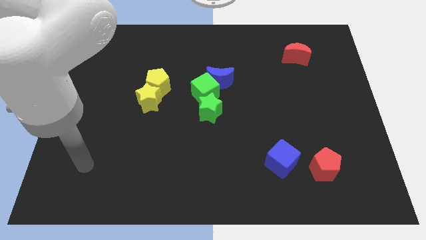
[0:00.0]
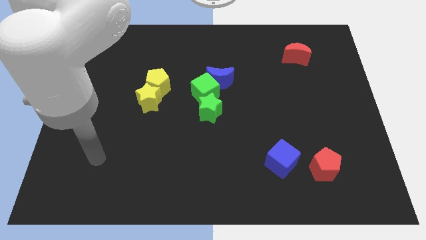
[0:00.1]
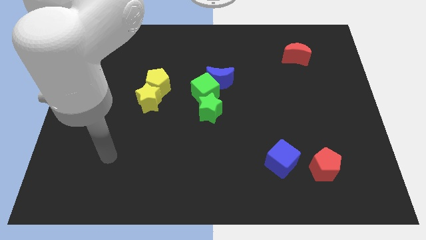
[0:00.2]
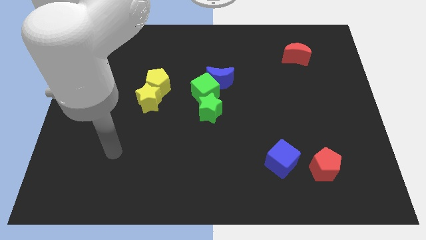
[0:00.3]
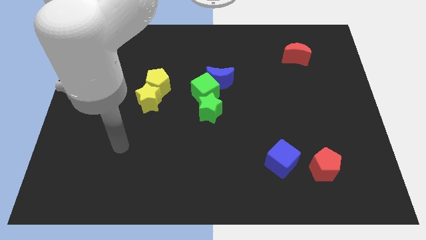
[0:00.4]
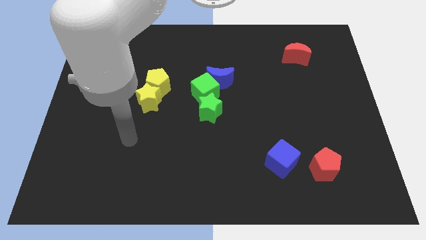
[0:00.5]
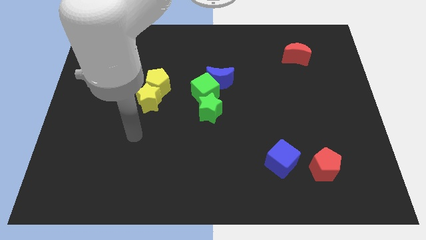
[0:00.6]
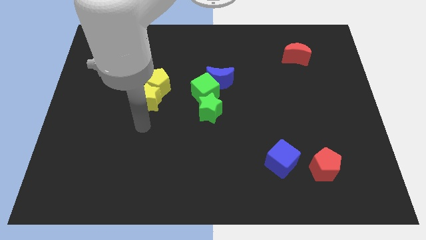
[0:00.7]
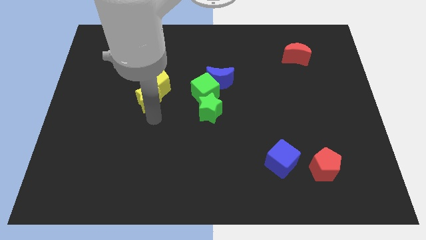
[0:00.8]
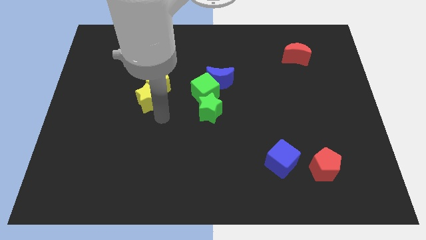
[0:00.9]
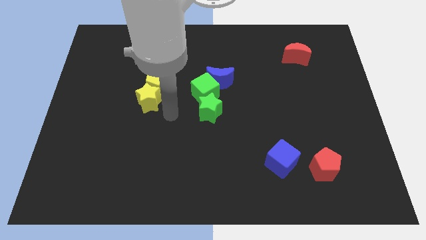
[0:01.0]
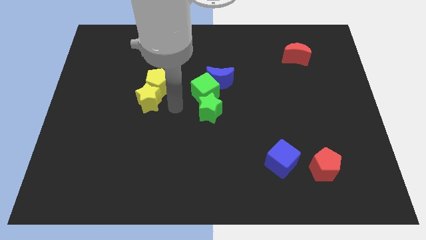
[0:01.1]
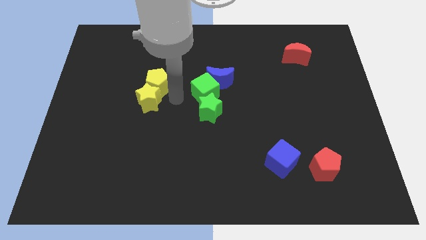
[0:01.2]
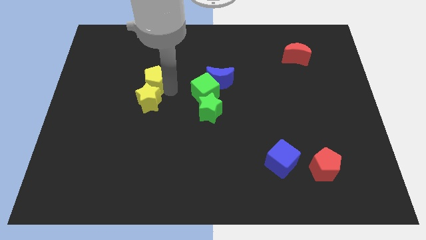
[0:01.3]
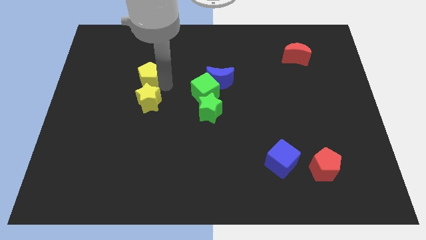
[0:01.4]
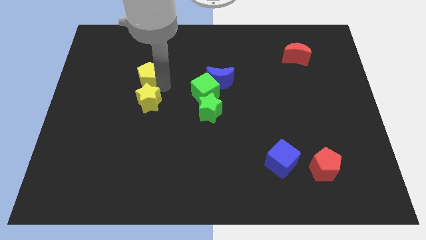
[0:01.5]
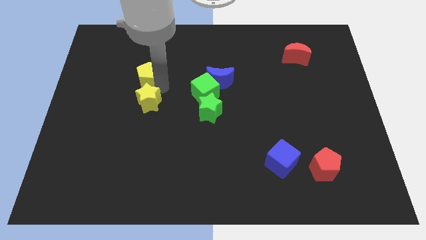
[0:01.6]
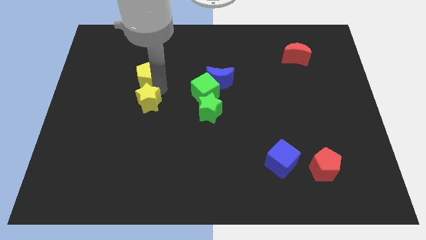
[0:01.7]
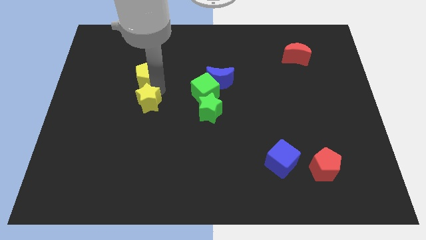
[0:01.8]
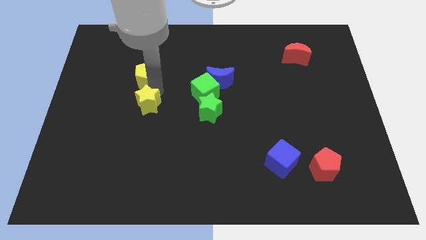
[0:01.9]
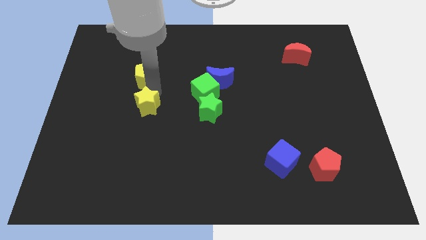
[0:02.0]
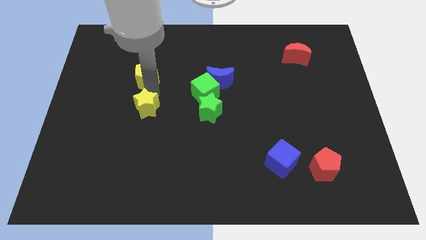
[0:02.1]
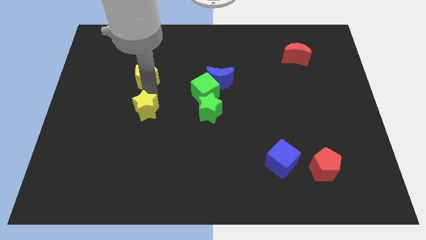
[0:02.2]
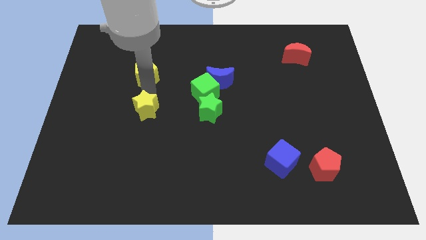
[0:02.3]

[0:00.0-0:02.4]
move the yellow star away from the yellow pentagon

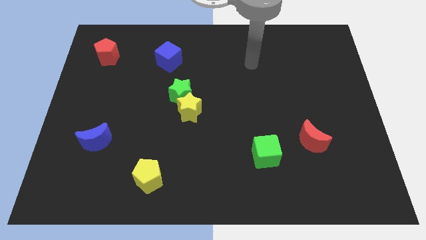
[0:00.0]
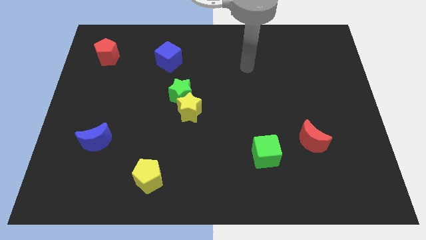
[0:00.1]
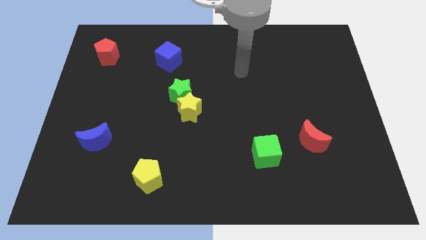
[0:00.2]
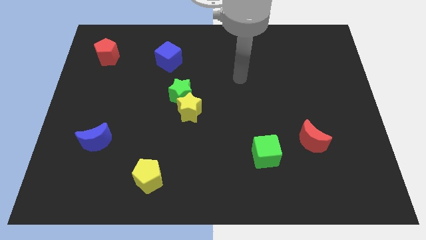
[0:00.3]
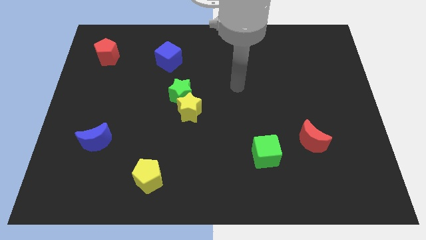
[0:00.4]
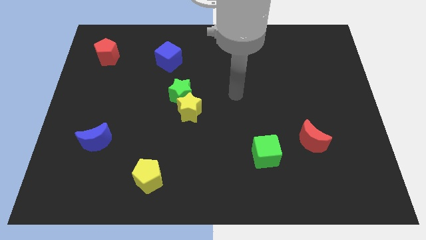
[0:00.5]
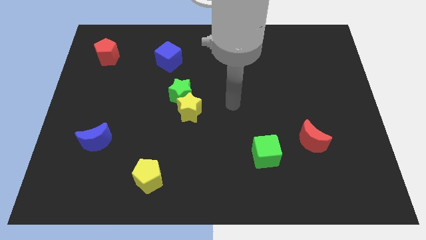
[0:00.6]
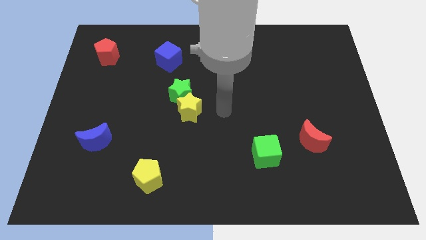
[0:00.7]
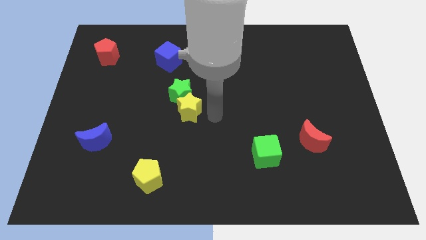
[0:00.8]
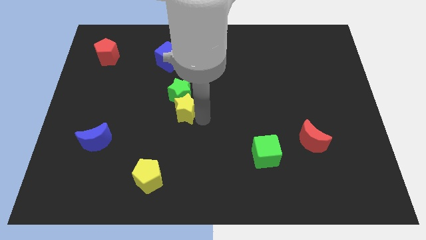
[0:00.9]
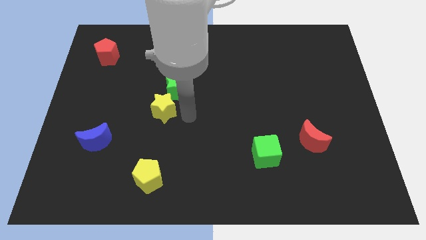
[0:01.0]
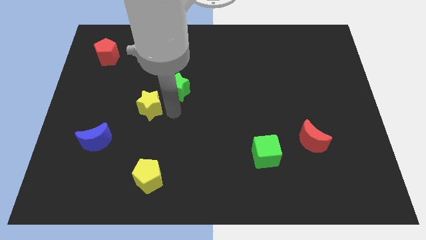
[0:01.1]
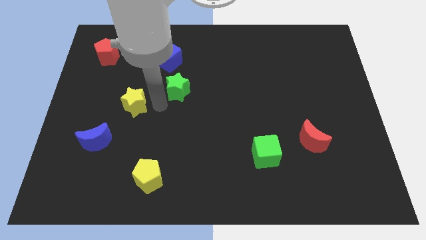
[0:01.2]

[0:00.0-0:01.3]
pull the green star apart from the yellow star

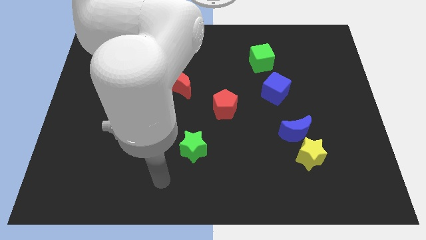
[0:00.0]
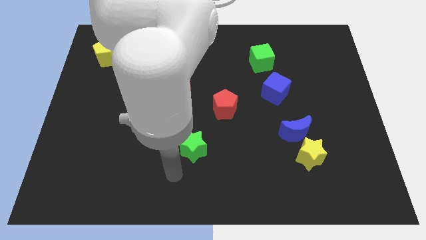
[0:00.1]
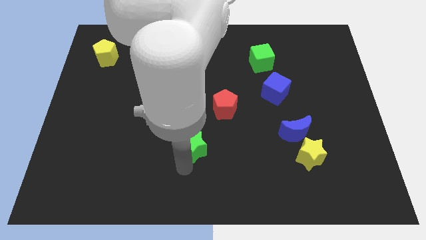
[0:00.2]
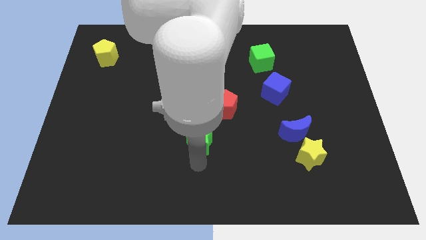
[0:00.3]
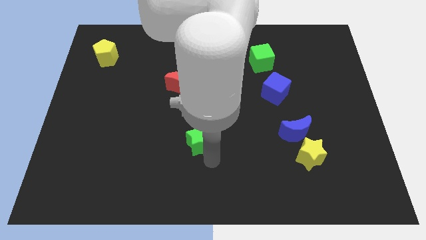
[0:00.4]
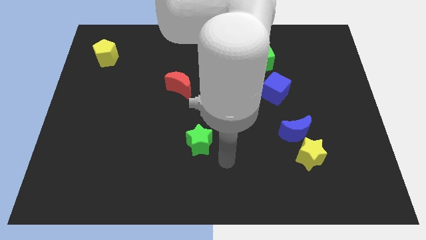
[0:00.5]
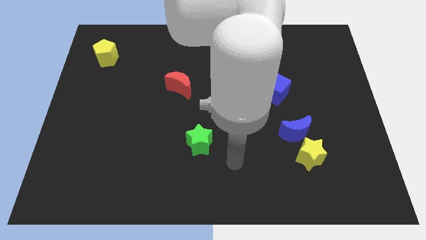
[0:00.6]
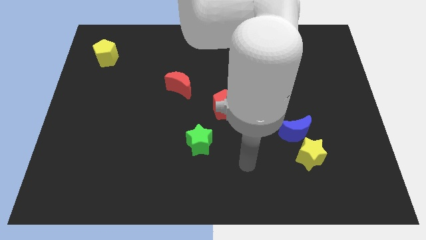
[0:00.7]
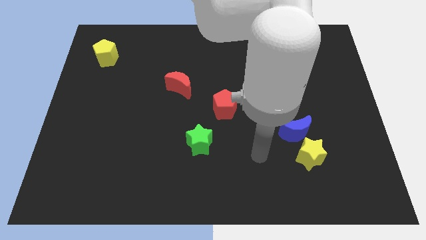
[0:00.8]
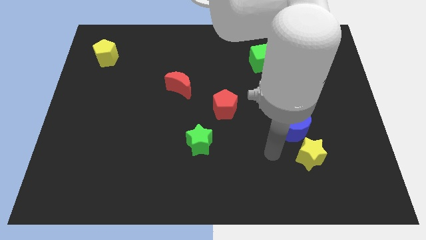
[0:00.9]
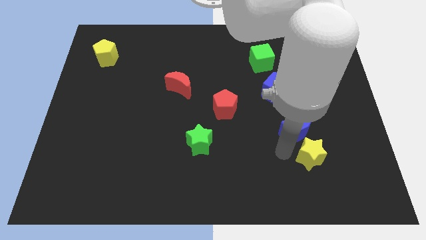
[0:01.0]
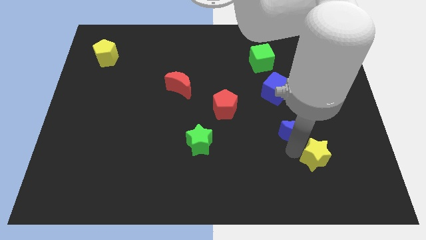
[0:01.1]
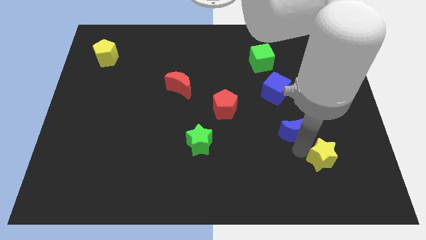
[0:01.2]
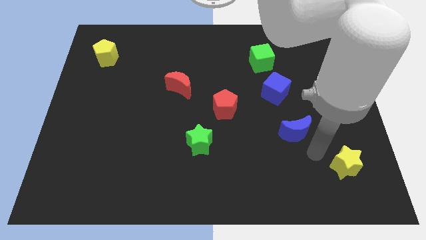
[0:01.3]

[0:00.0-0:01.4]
separate the blue moon from the yellow star

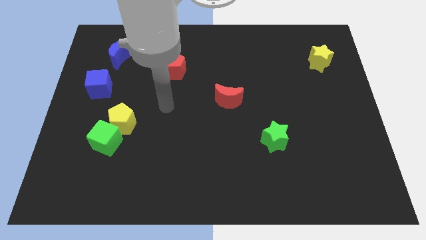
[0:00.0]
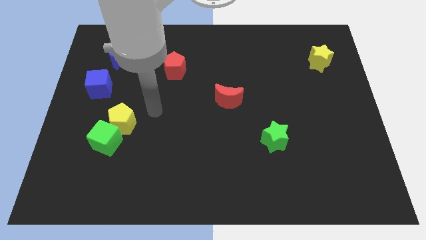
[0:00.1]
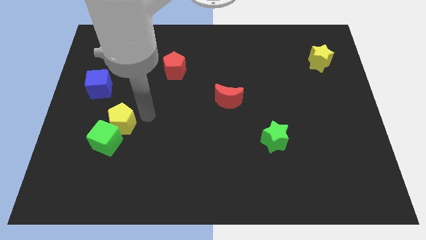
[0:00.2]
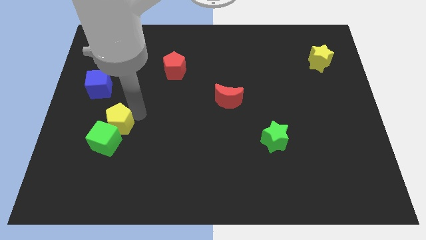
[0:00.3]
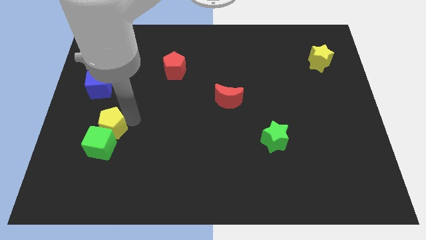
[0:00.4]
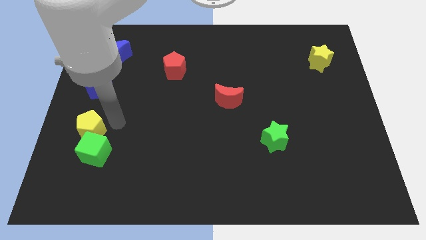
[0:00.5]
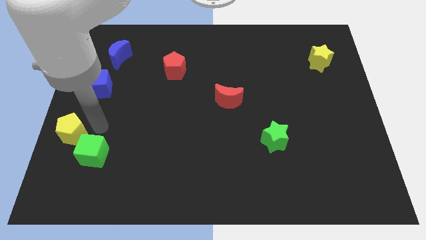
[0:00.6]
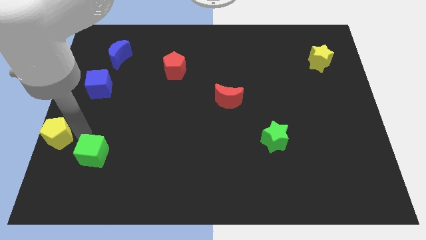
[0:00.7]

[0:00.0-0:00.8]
separate the green cube from the yellow pentagon

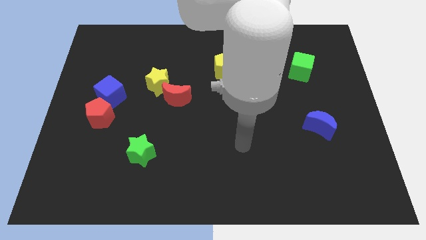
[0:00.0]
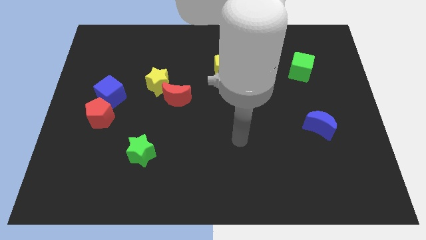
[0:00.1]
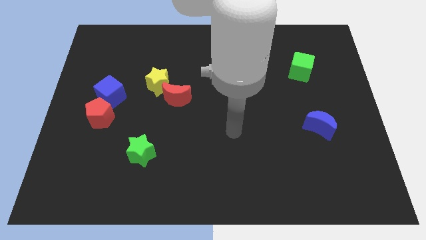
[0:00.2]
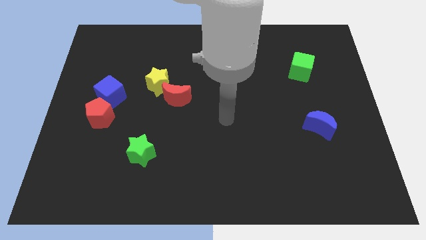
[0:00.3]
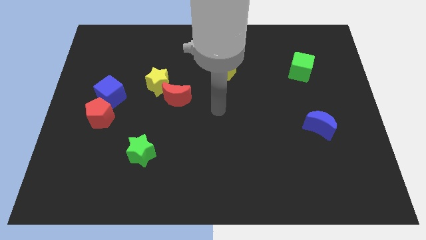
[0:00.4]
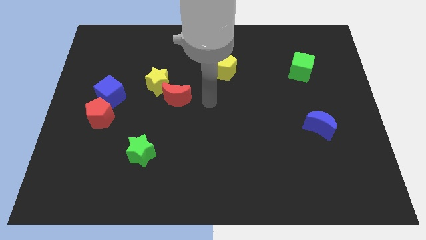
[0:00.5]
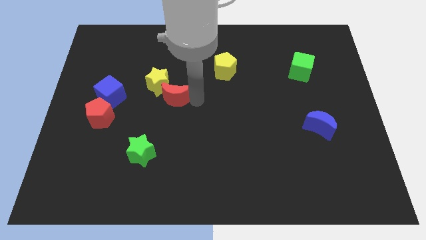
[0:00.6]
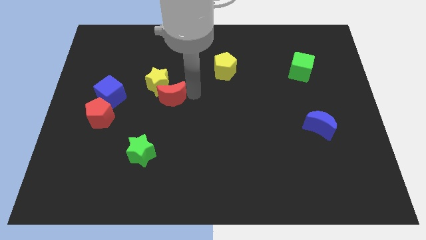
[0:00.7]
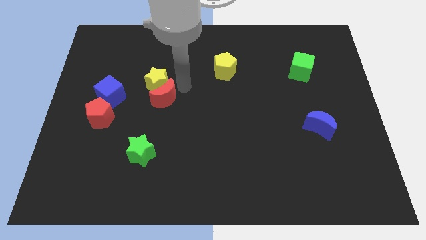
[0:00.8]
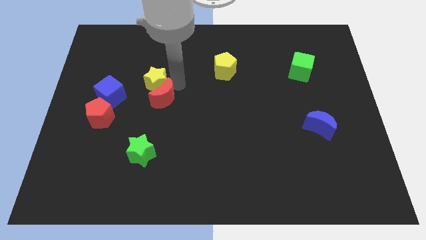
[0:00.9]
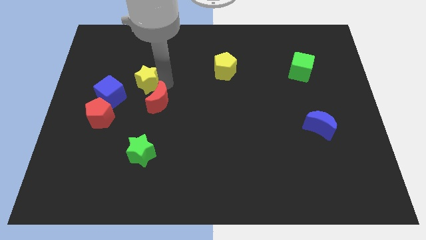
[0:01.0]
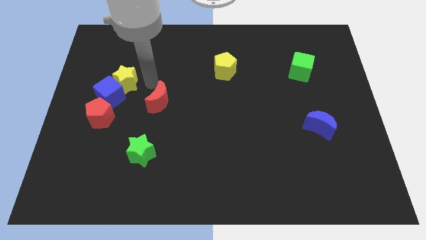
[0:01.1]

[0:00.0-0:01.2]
move the red moon away from the yellow star

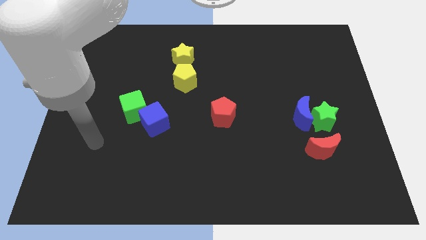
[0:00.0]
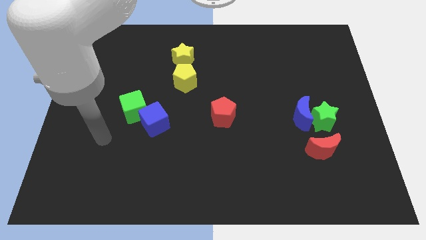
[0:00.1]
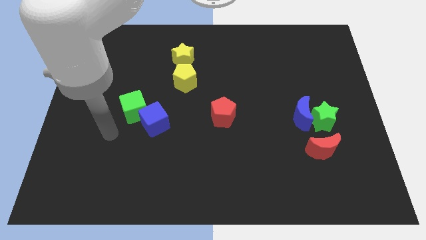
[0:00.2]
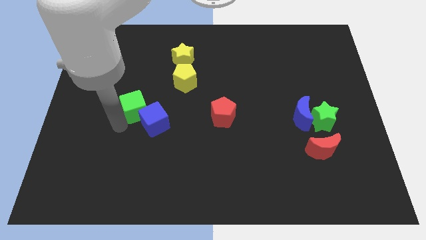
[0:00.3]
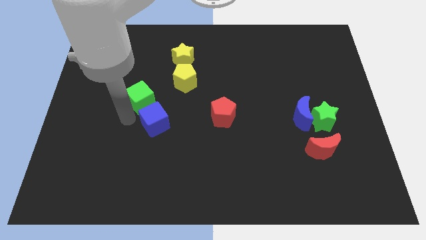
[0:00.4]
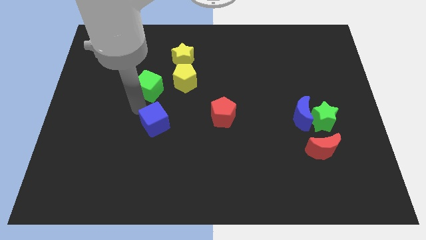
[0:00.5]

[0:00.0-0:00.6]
separate the blue cube from the green cube

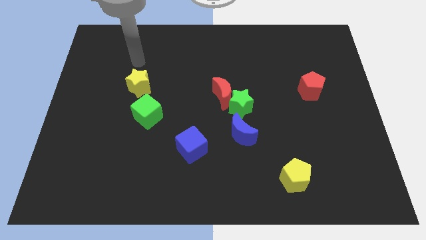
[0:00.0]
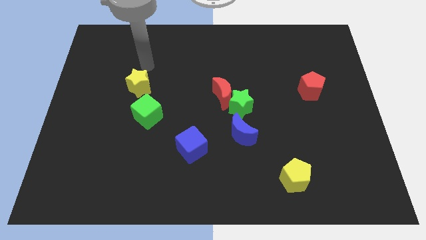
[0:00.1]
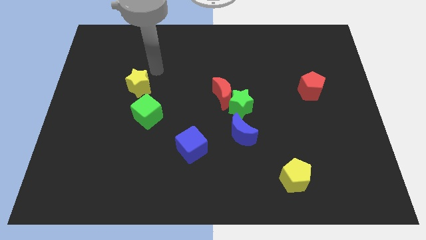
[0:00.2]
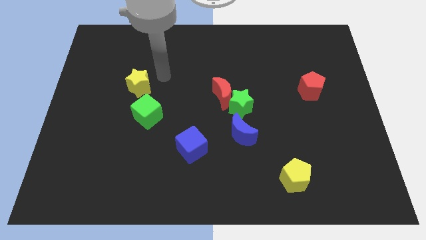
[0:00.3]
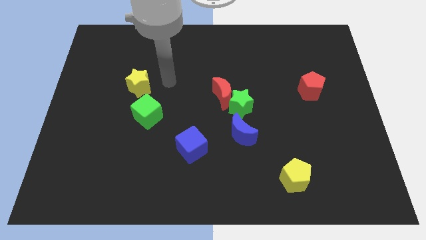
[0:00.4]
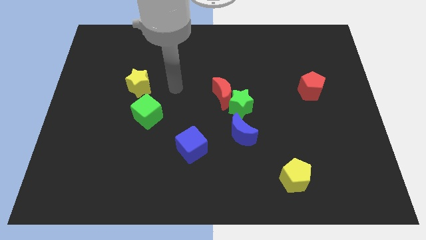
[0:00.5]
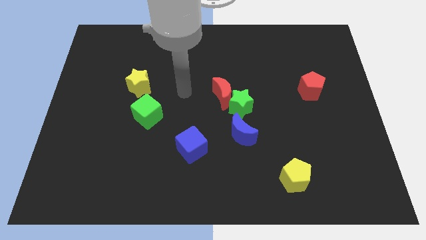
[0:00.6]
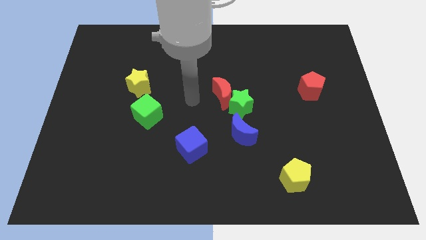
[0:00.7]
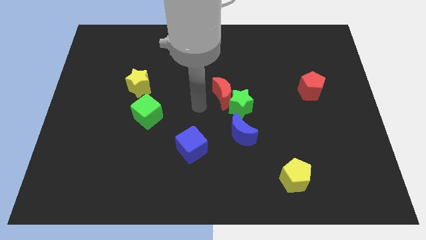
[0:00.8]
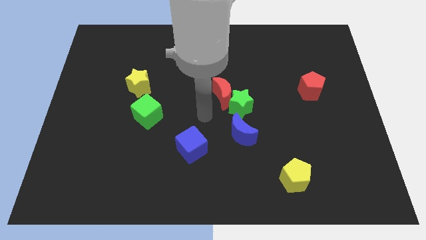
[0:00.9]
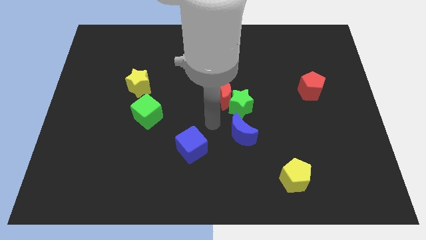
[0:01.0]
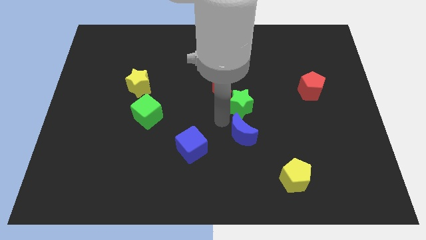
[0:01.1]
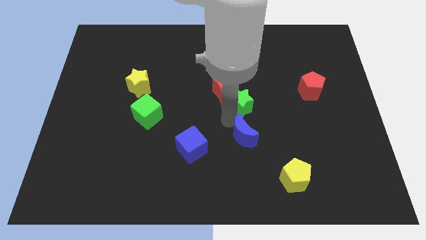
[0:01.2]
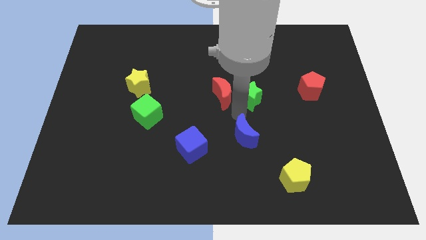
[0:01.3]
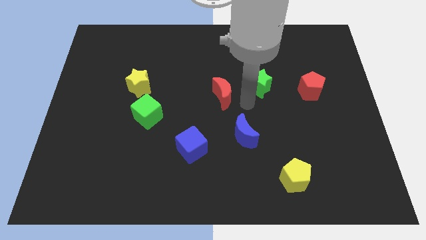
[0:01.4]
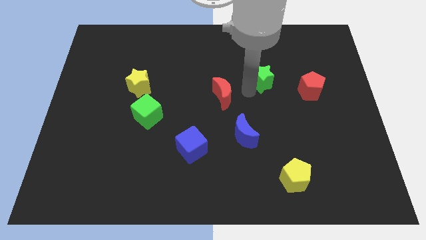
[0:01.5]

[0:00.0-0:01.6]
move the red moon away from the green star
